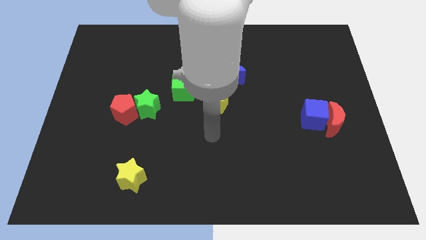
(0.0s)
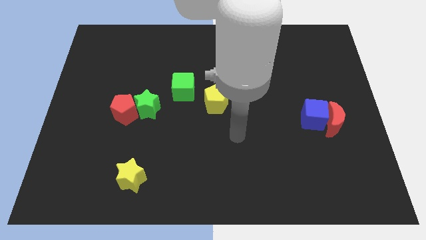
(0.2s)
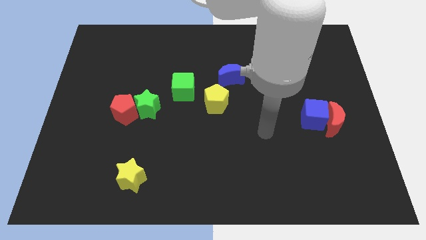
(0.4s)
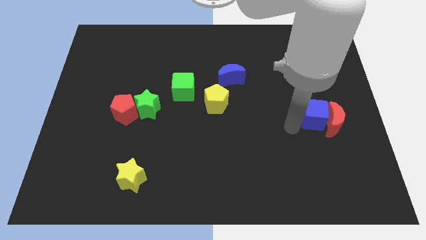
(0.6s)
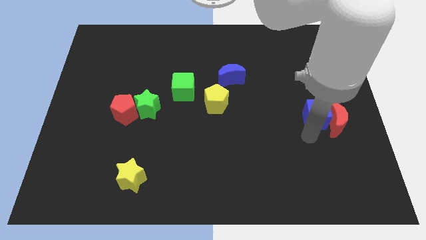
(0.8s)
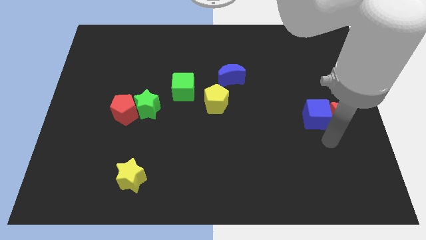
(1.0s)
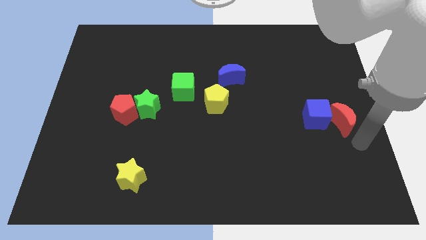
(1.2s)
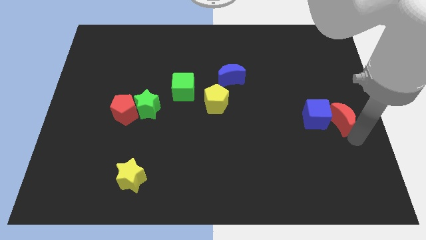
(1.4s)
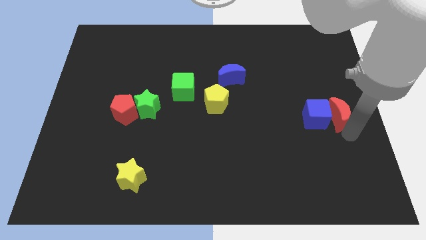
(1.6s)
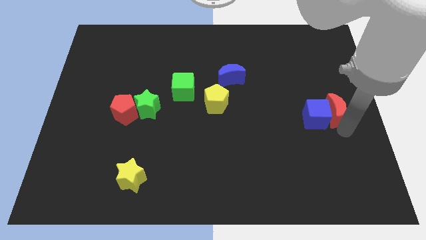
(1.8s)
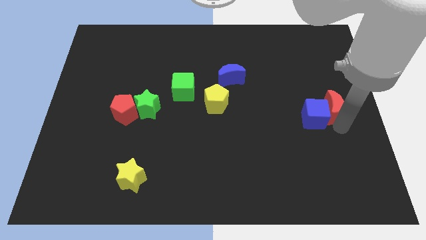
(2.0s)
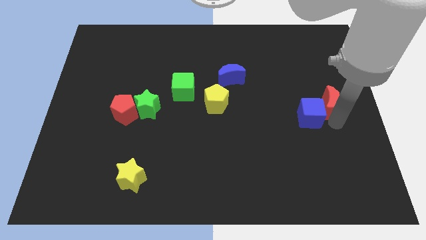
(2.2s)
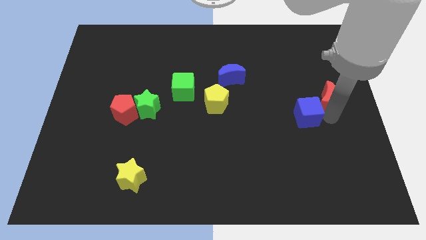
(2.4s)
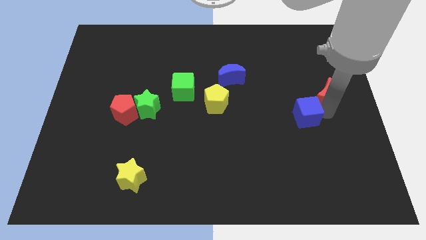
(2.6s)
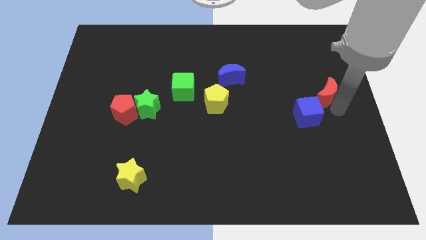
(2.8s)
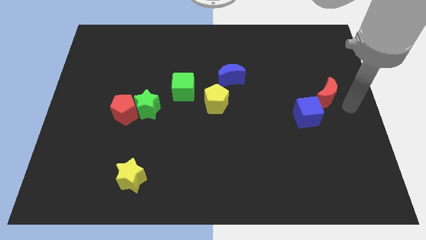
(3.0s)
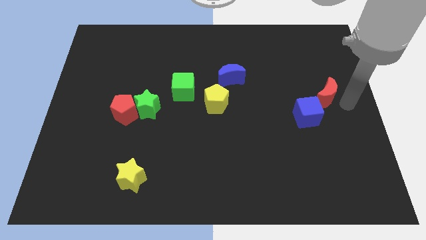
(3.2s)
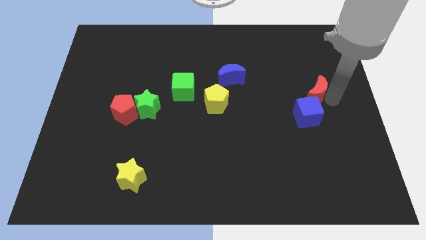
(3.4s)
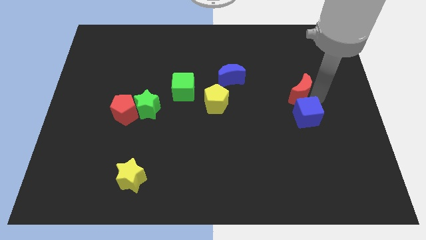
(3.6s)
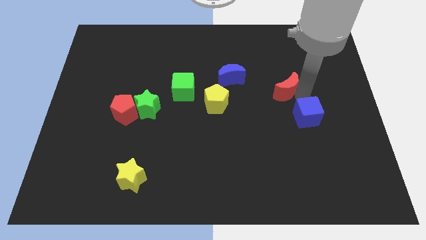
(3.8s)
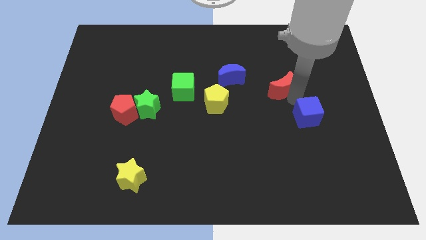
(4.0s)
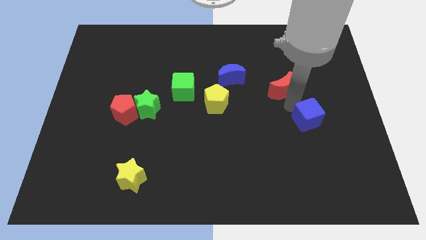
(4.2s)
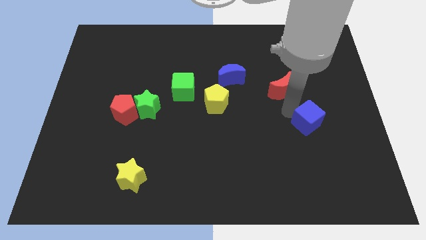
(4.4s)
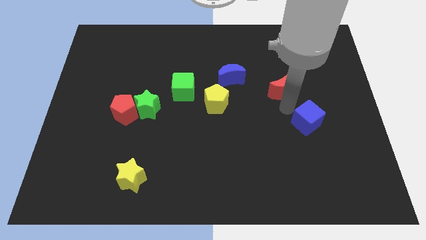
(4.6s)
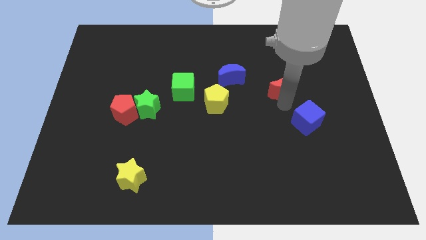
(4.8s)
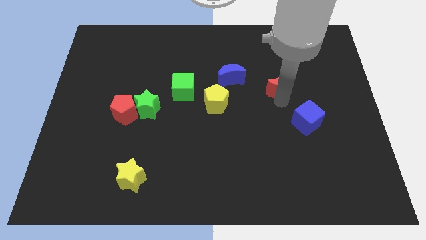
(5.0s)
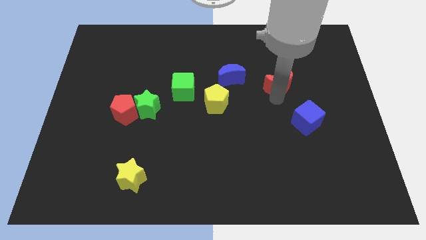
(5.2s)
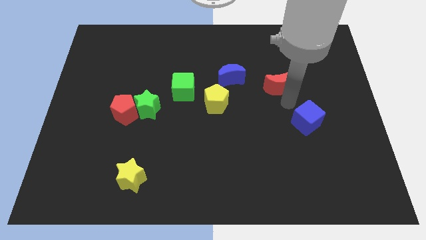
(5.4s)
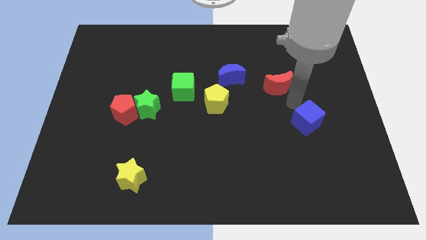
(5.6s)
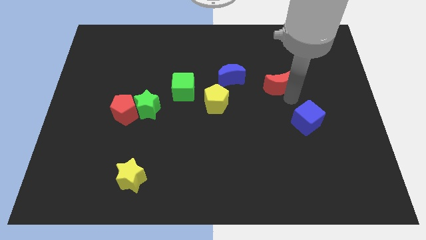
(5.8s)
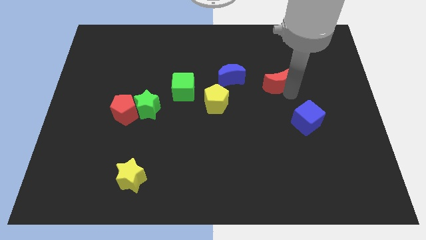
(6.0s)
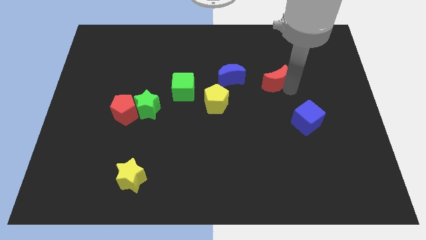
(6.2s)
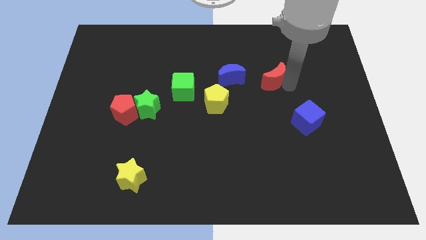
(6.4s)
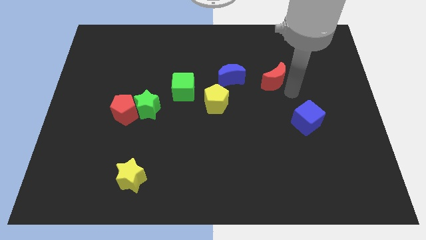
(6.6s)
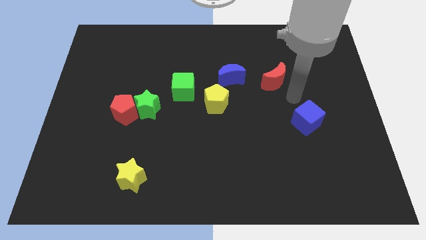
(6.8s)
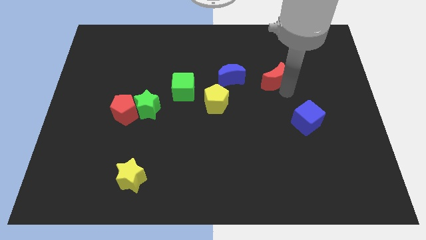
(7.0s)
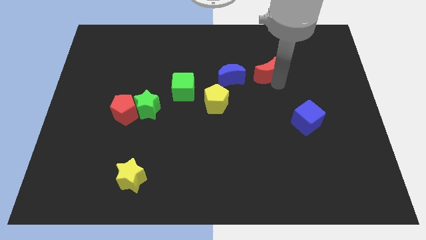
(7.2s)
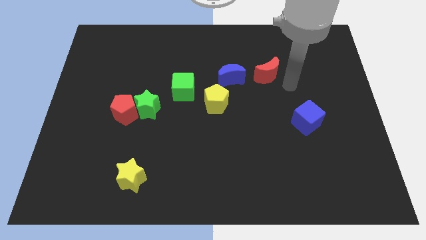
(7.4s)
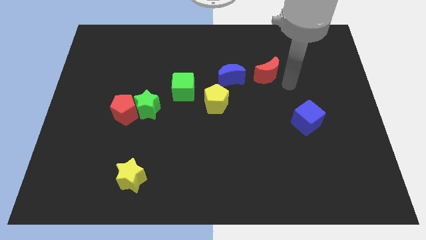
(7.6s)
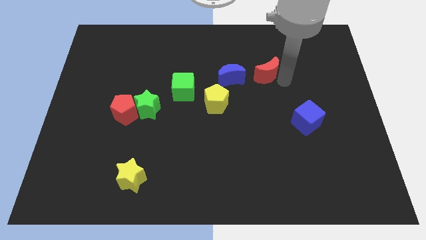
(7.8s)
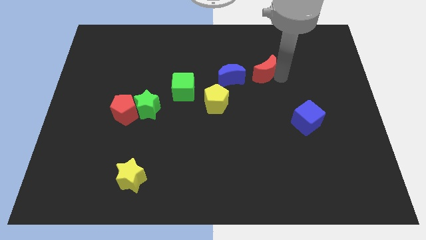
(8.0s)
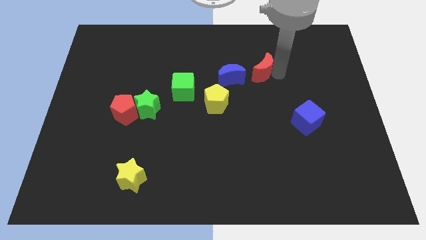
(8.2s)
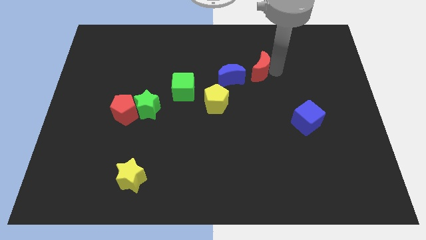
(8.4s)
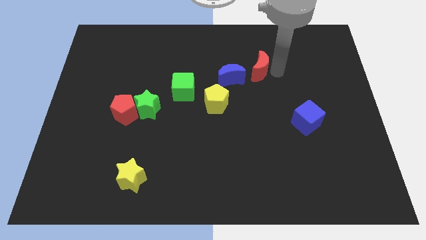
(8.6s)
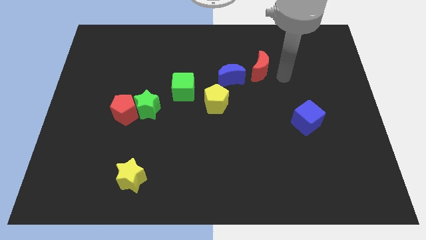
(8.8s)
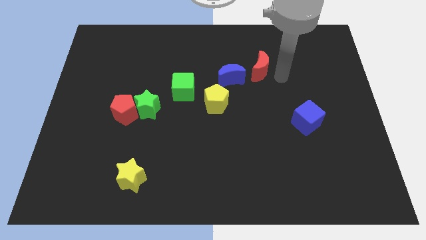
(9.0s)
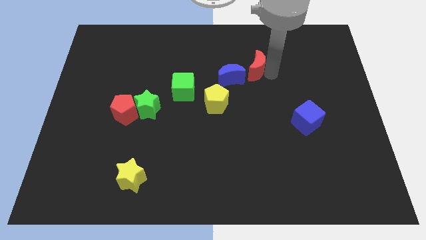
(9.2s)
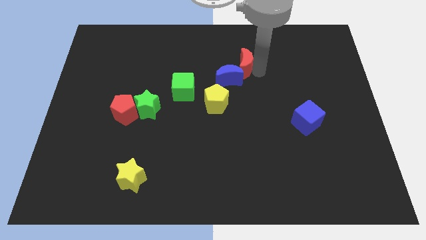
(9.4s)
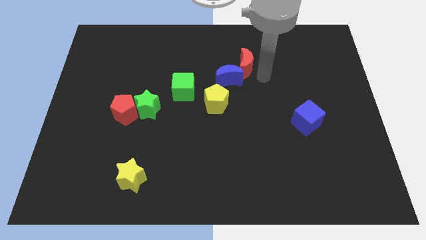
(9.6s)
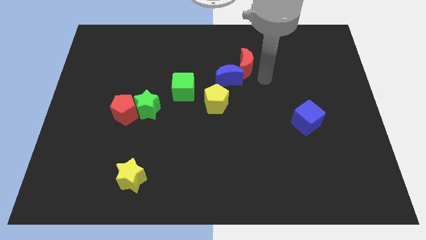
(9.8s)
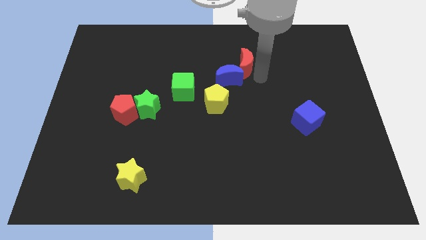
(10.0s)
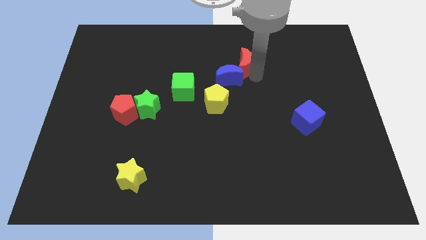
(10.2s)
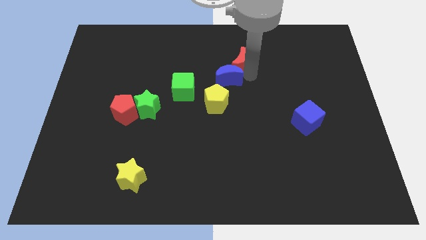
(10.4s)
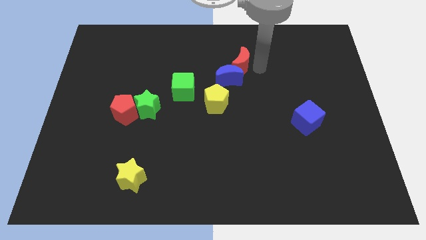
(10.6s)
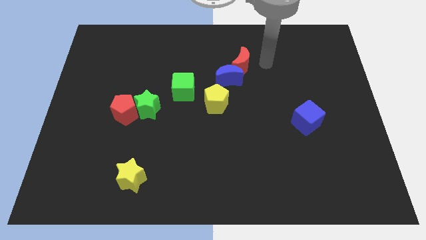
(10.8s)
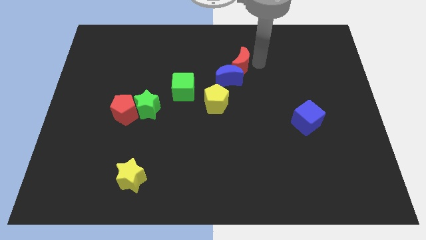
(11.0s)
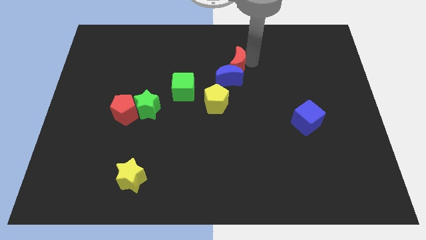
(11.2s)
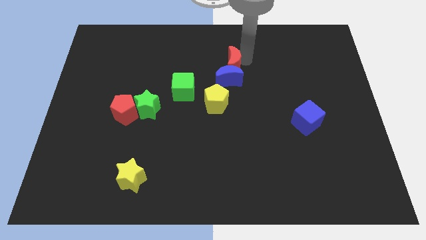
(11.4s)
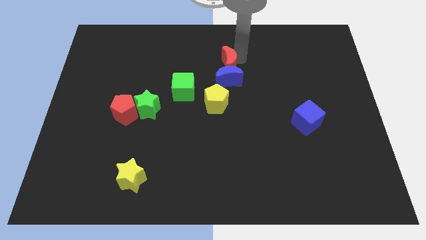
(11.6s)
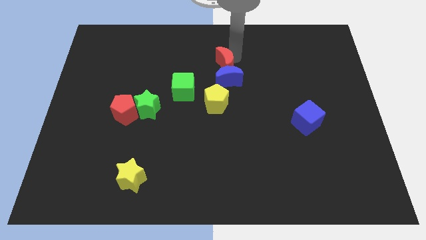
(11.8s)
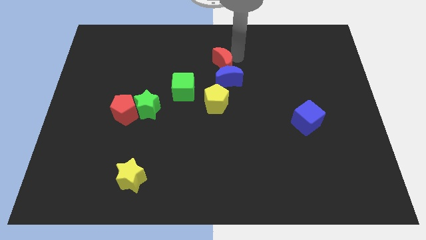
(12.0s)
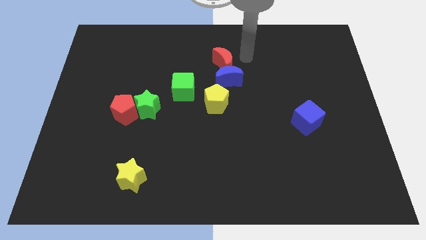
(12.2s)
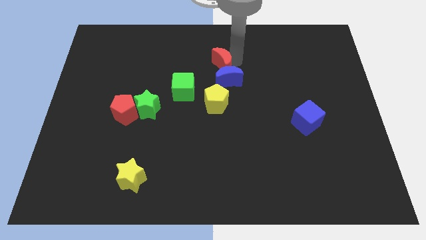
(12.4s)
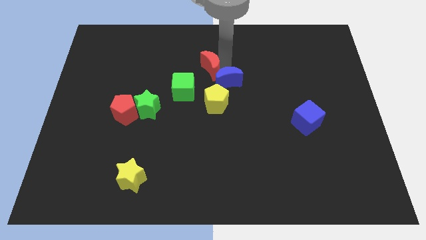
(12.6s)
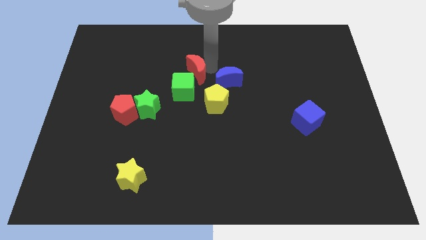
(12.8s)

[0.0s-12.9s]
slide the red moon to the top left of the yellow pentagon
